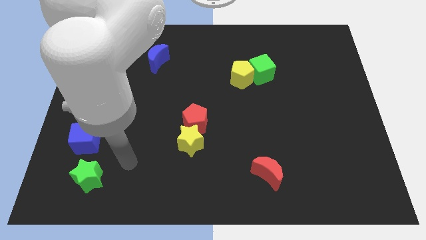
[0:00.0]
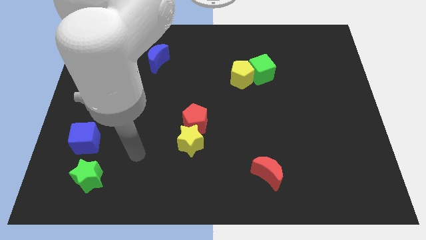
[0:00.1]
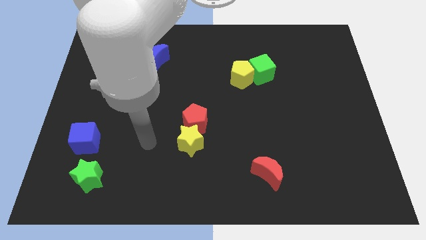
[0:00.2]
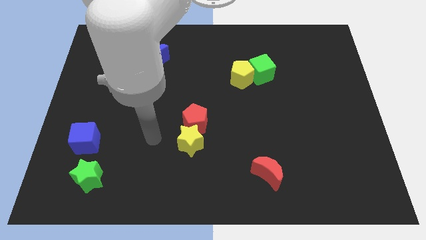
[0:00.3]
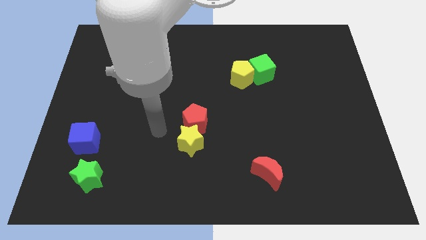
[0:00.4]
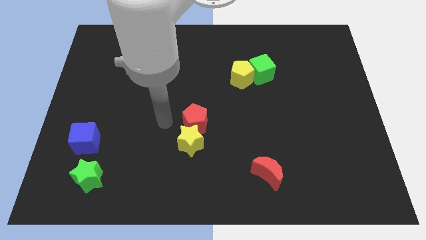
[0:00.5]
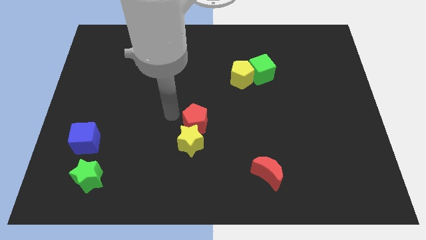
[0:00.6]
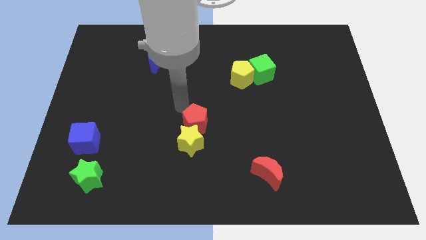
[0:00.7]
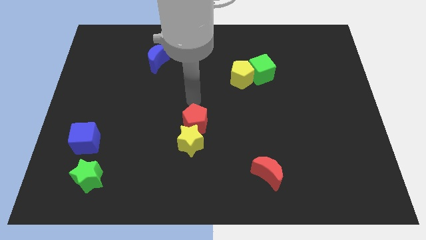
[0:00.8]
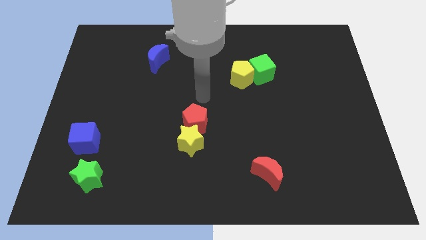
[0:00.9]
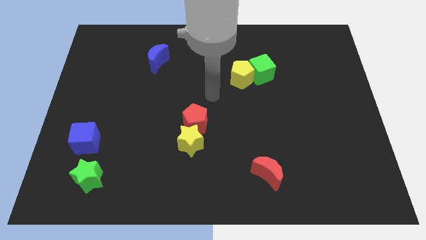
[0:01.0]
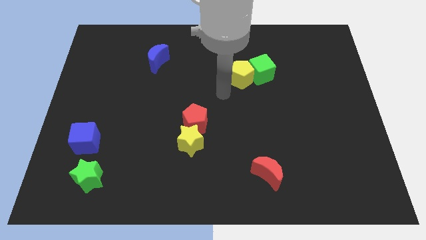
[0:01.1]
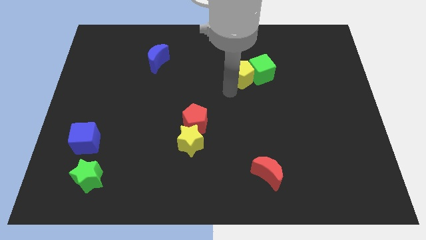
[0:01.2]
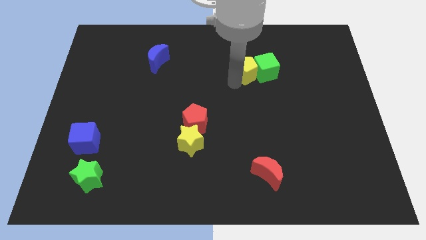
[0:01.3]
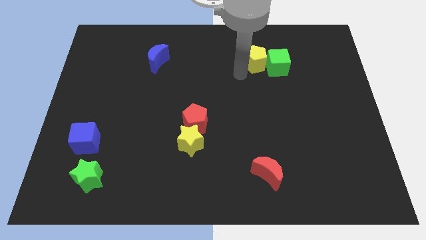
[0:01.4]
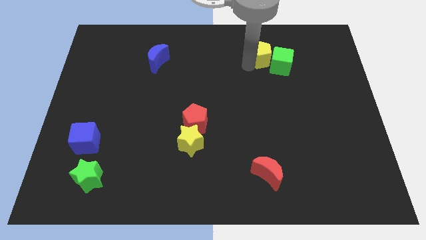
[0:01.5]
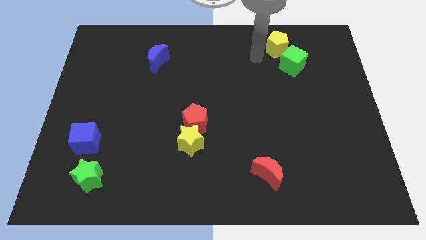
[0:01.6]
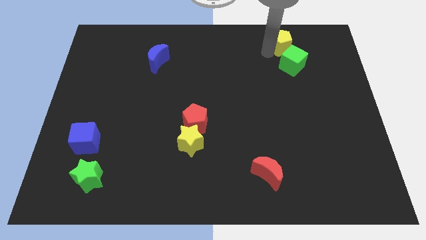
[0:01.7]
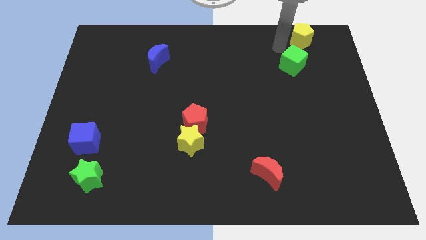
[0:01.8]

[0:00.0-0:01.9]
move the green cube away from the yellow pentagon

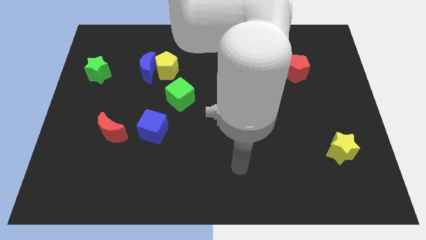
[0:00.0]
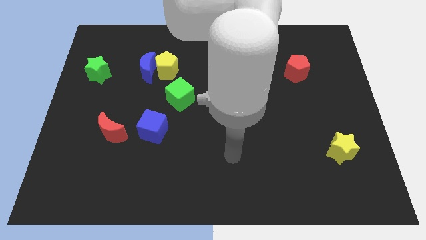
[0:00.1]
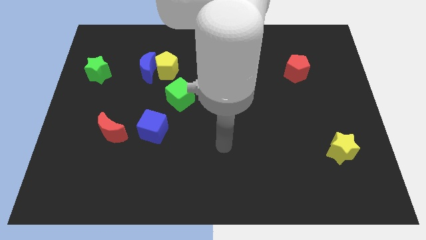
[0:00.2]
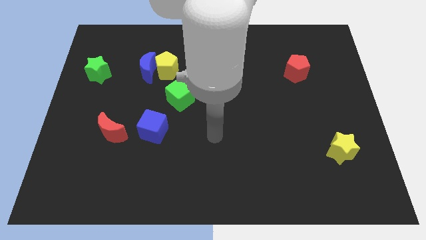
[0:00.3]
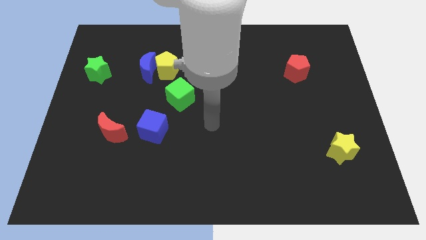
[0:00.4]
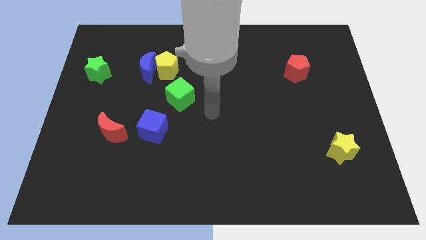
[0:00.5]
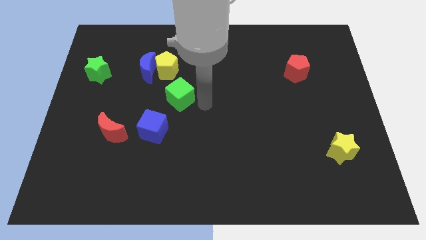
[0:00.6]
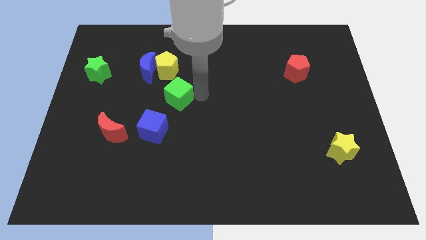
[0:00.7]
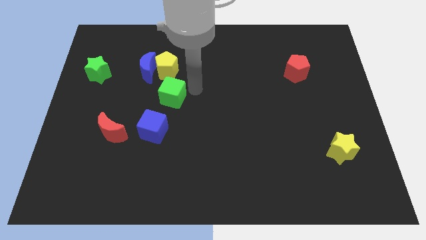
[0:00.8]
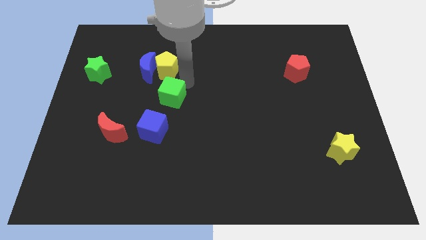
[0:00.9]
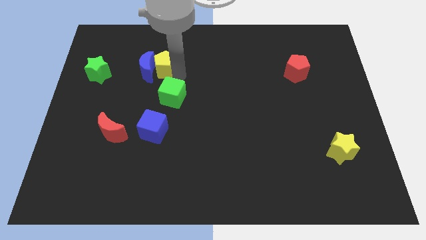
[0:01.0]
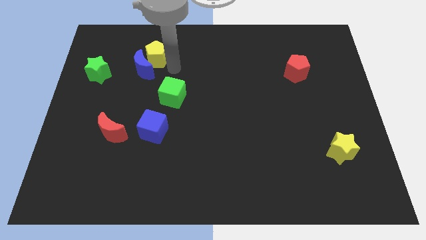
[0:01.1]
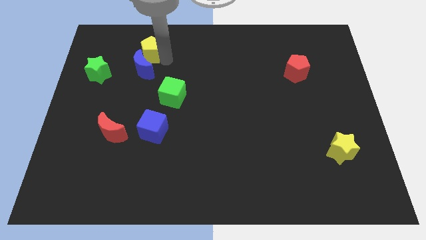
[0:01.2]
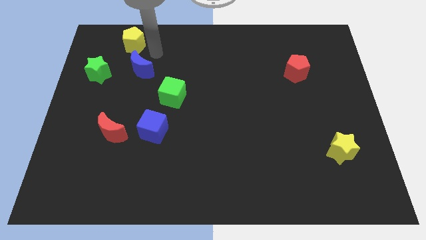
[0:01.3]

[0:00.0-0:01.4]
pull the blue moon apart from the yellow pentagon

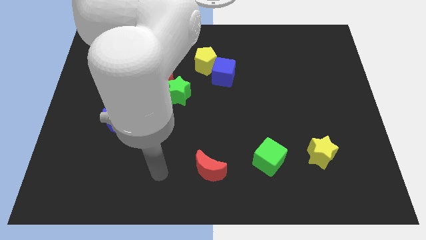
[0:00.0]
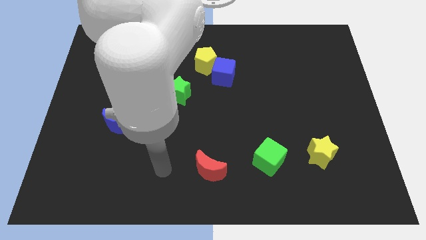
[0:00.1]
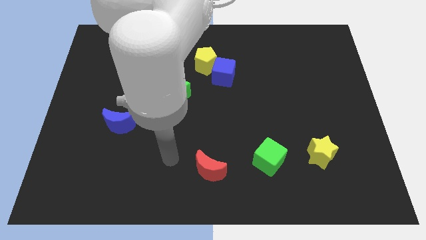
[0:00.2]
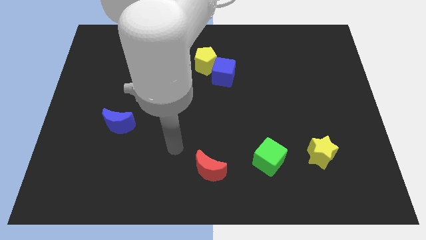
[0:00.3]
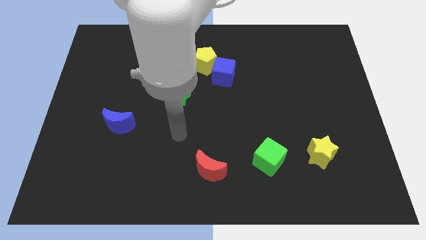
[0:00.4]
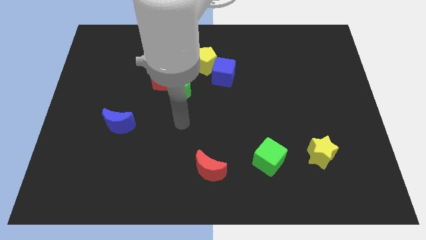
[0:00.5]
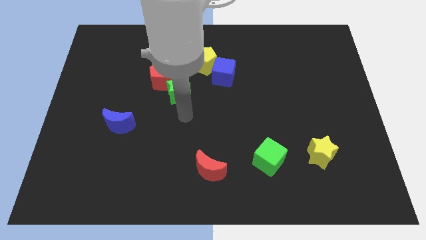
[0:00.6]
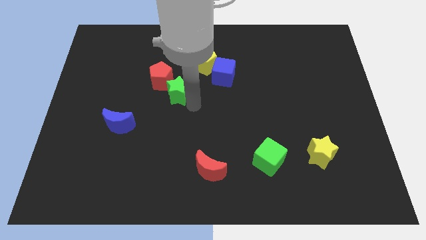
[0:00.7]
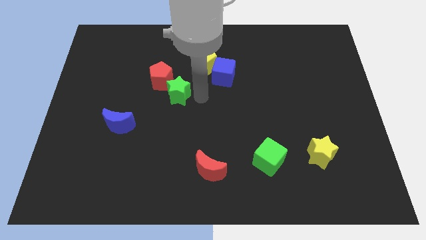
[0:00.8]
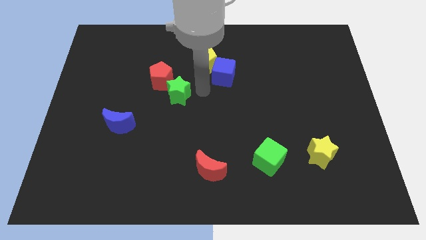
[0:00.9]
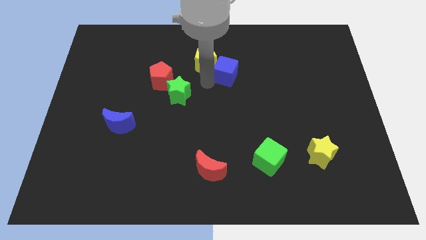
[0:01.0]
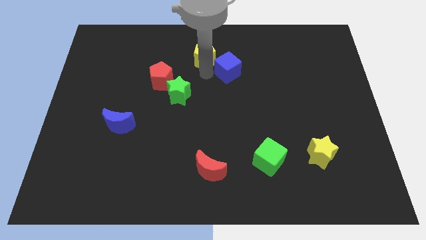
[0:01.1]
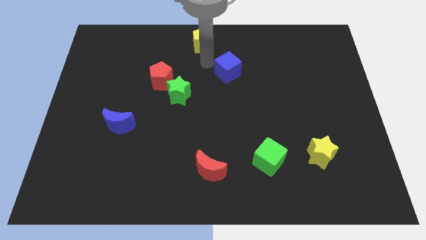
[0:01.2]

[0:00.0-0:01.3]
separate the blue cube from the yellow pentagon

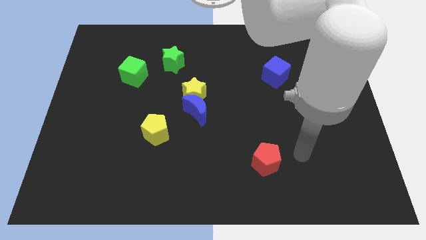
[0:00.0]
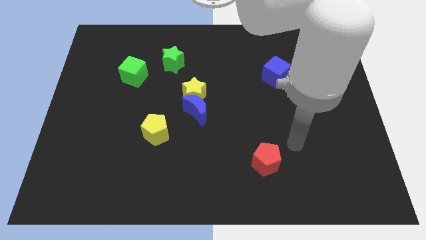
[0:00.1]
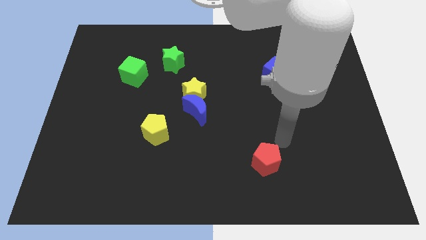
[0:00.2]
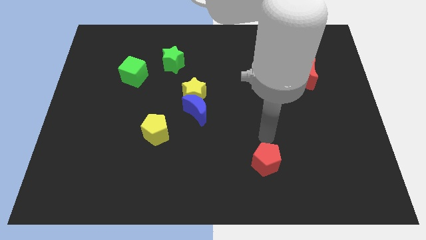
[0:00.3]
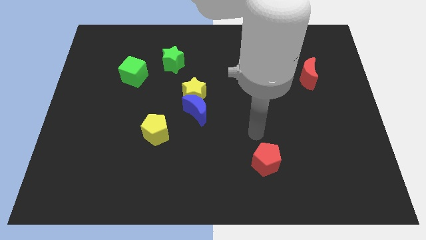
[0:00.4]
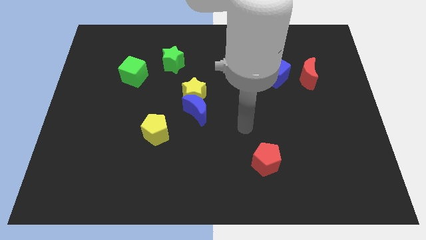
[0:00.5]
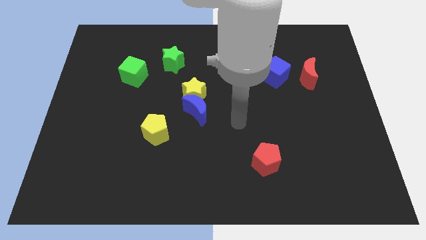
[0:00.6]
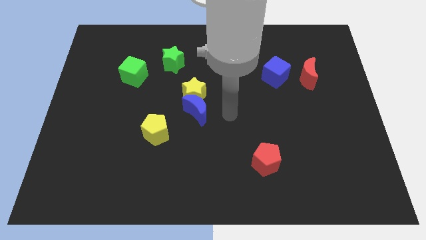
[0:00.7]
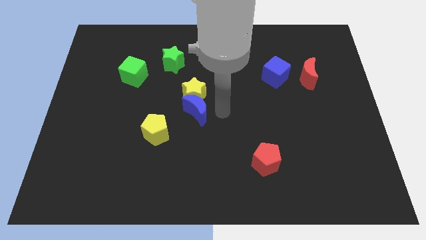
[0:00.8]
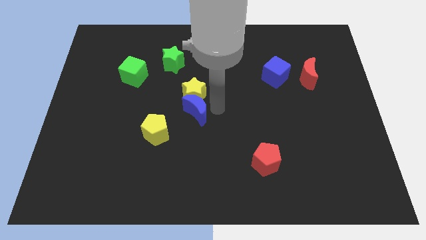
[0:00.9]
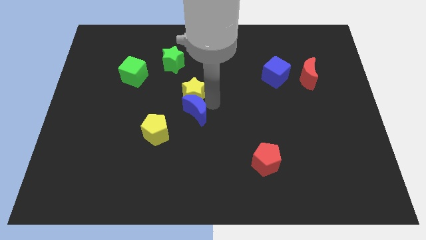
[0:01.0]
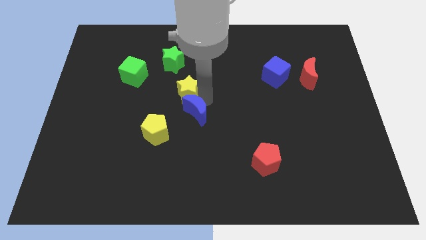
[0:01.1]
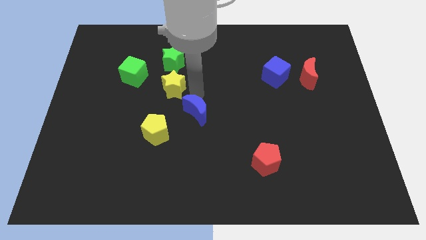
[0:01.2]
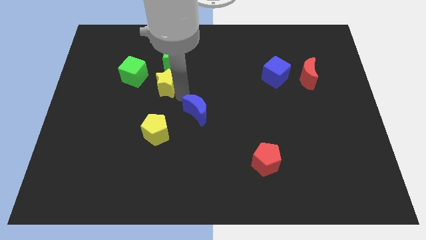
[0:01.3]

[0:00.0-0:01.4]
separate the blue moon from the yellow star

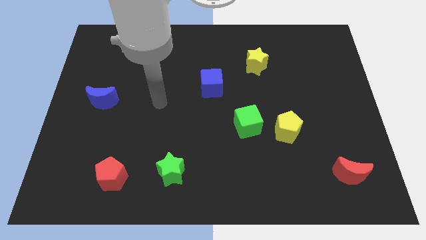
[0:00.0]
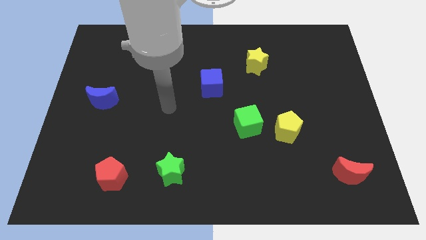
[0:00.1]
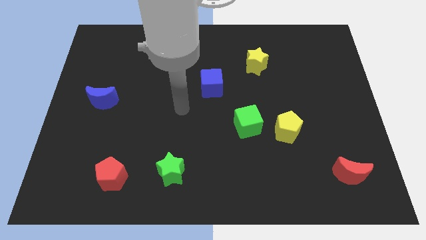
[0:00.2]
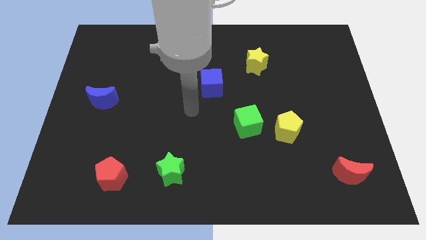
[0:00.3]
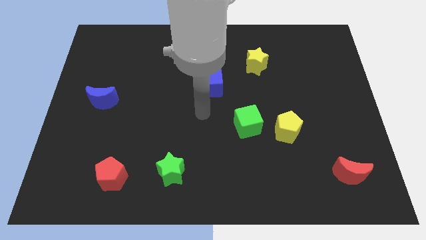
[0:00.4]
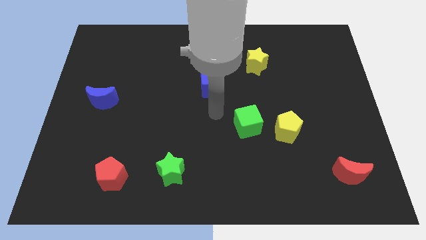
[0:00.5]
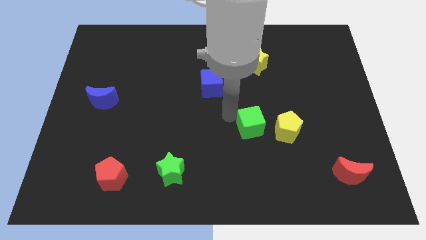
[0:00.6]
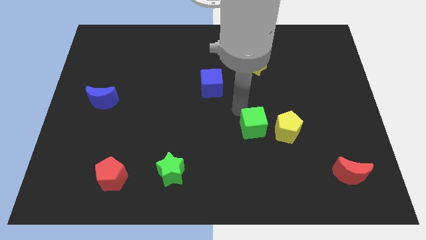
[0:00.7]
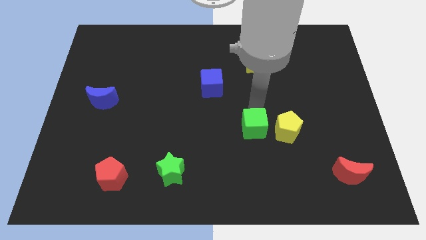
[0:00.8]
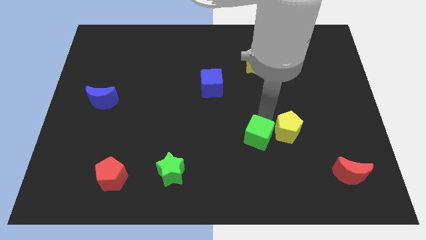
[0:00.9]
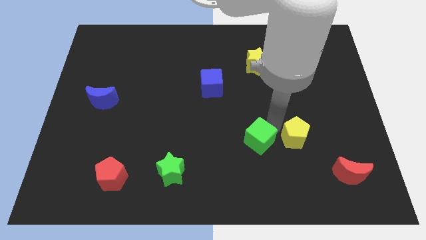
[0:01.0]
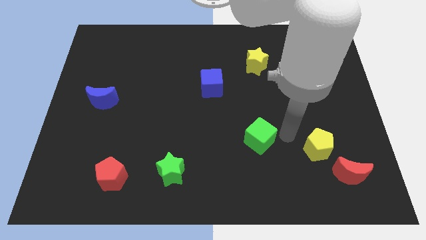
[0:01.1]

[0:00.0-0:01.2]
pull the green cube apart from the yellow pentagon

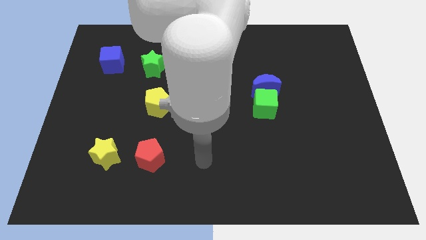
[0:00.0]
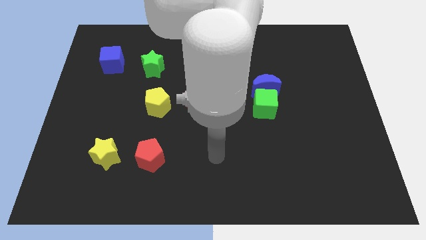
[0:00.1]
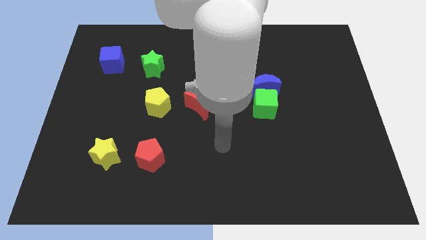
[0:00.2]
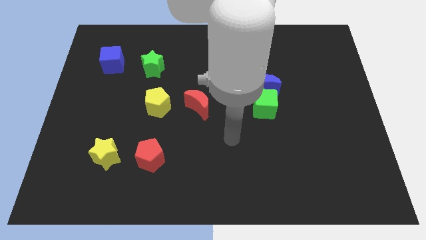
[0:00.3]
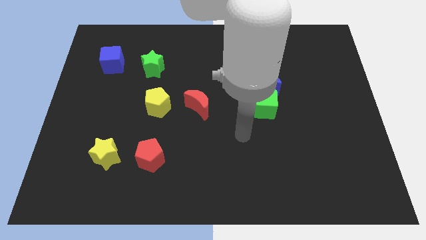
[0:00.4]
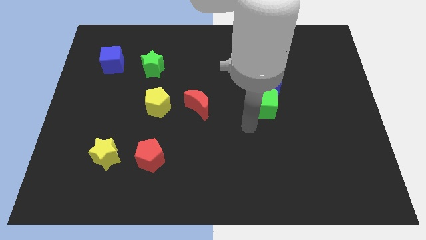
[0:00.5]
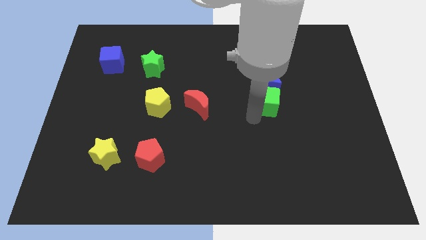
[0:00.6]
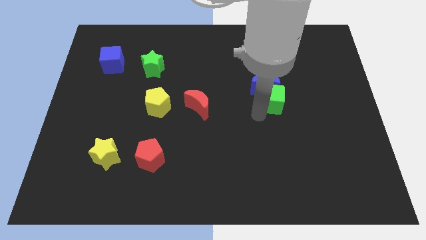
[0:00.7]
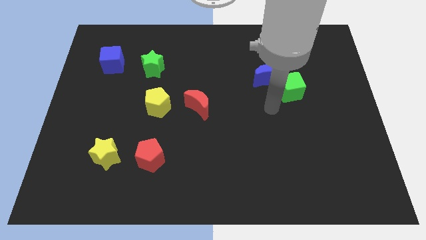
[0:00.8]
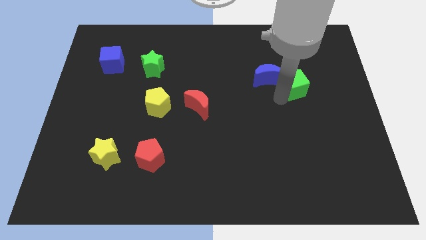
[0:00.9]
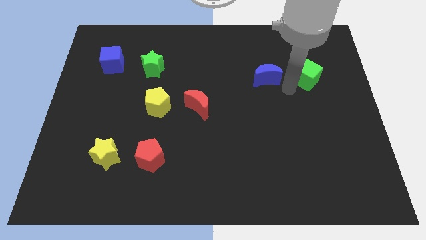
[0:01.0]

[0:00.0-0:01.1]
pull the blue moon apart from the green cube

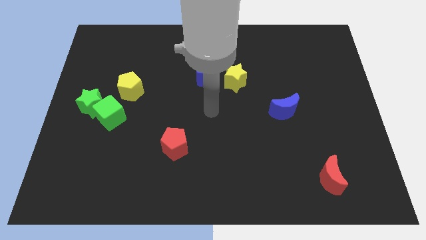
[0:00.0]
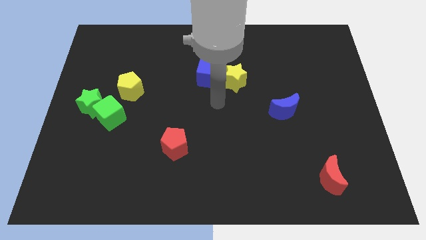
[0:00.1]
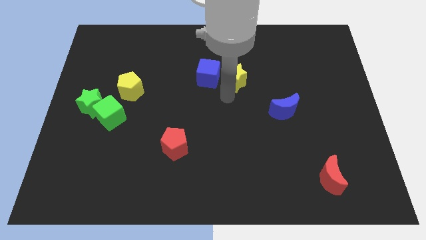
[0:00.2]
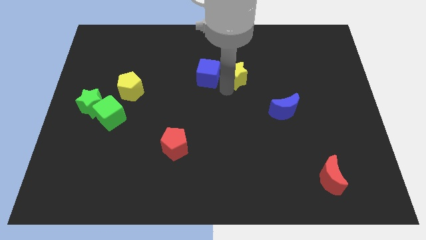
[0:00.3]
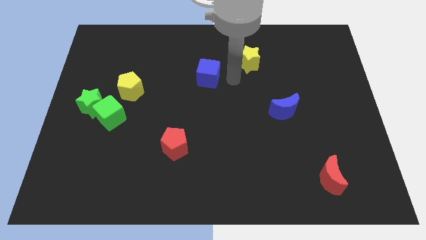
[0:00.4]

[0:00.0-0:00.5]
move the blue cube away from the yellow star

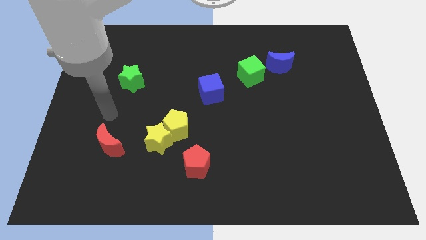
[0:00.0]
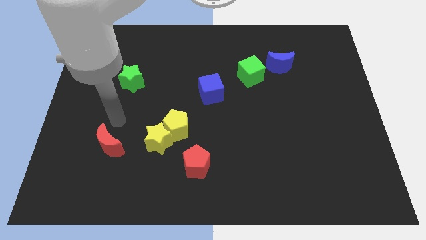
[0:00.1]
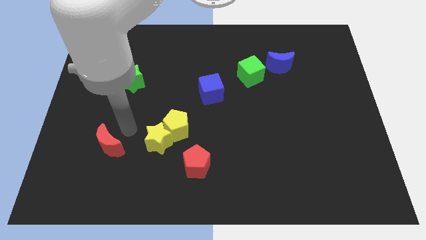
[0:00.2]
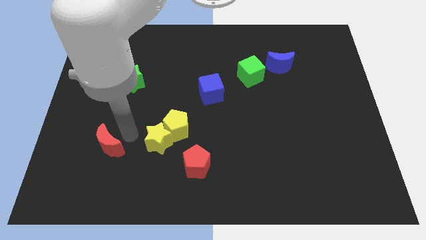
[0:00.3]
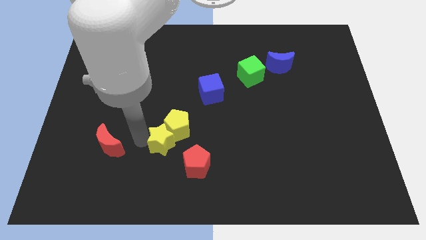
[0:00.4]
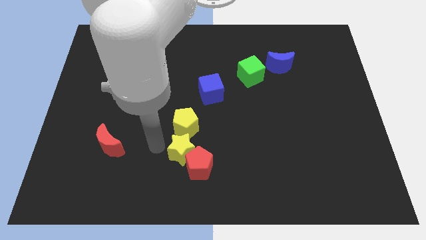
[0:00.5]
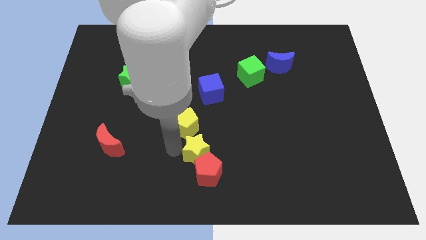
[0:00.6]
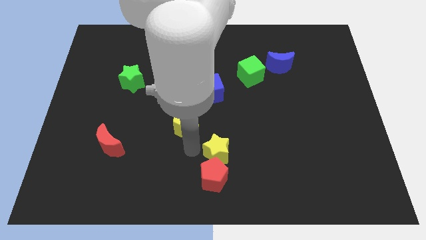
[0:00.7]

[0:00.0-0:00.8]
pull the yellow pentagon apart from the yellow star
